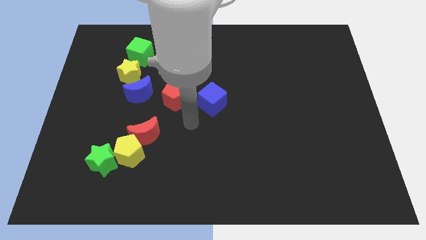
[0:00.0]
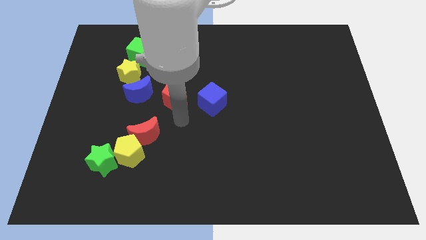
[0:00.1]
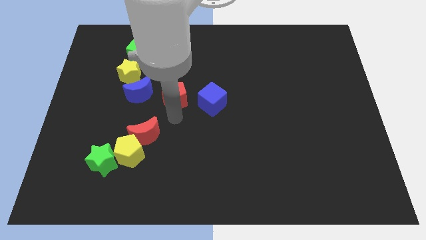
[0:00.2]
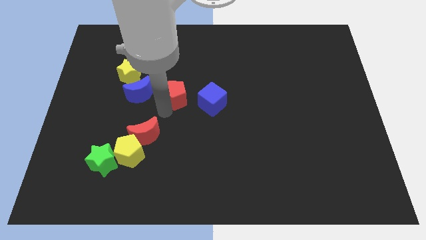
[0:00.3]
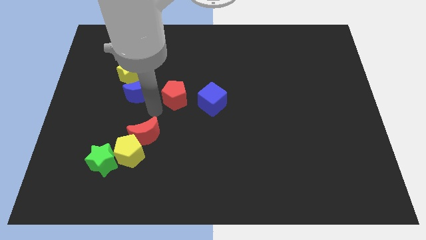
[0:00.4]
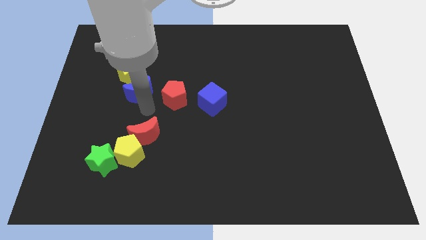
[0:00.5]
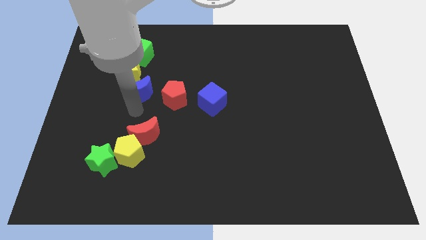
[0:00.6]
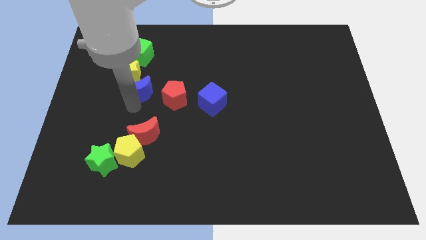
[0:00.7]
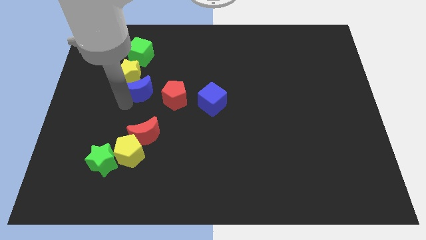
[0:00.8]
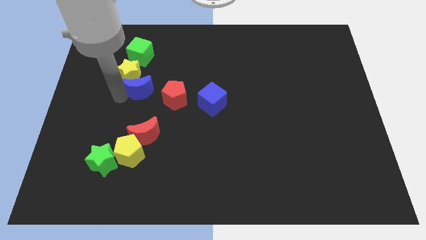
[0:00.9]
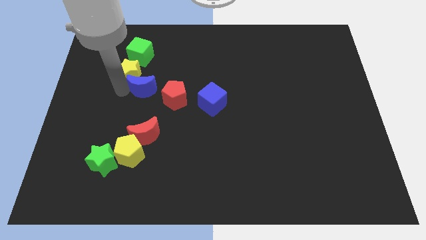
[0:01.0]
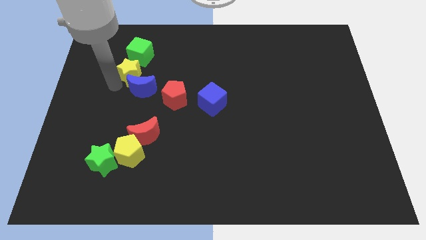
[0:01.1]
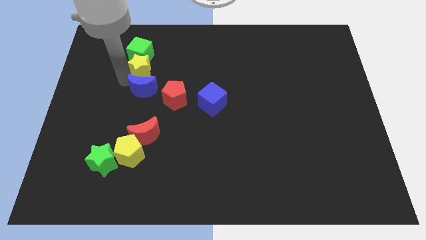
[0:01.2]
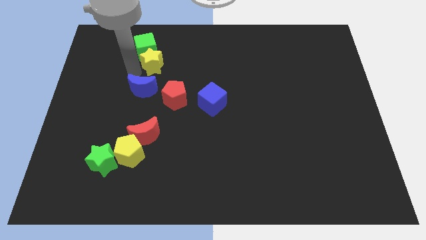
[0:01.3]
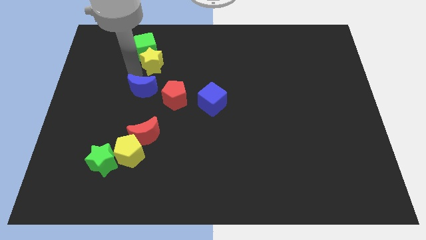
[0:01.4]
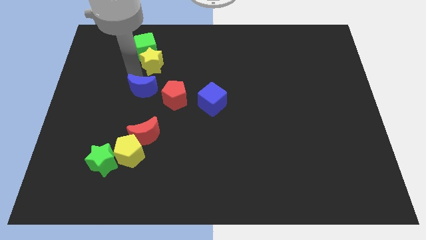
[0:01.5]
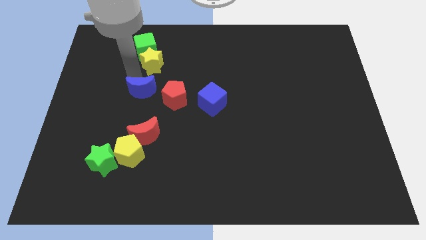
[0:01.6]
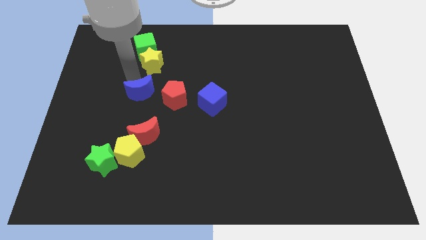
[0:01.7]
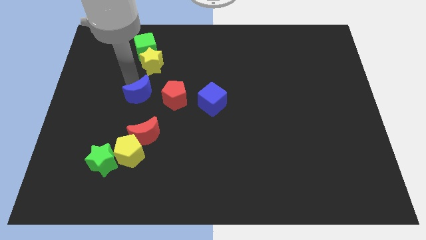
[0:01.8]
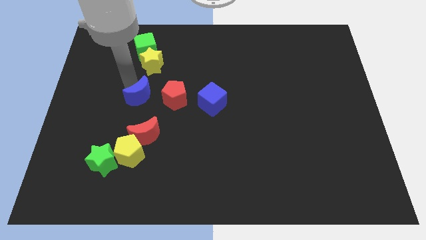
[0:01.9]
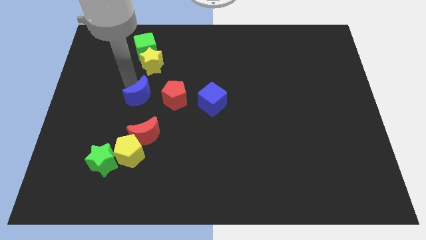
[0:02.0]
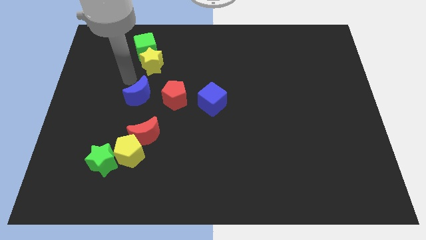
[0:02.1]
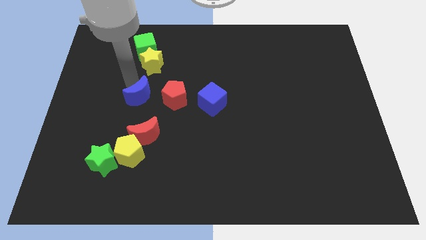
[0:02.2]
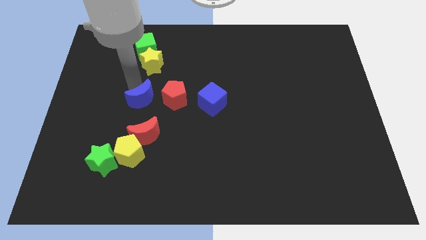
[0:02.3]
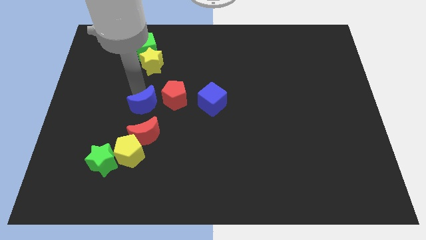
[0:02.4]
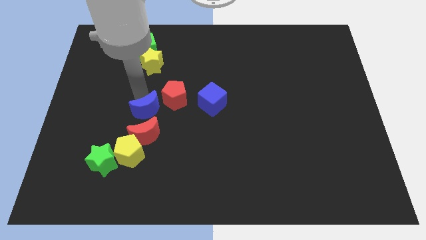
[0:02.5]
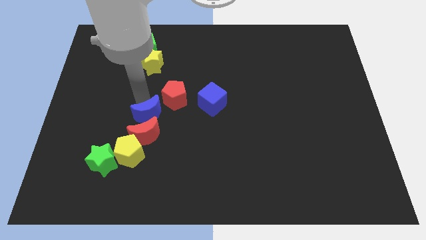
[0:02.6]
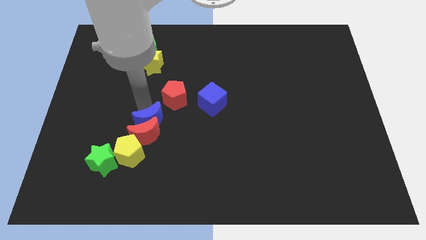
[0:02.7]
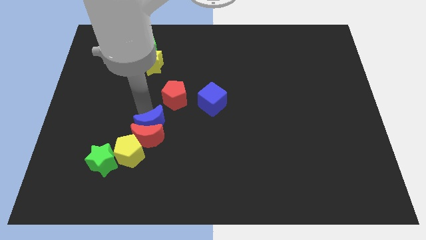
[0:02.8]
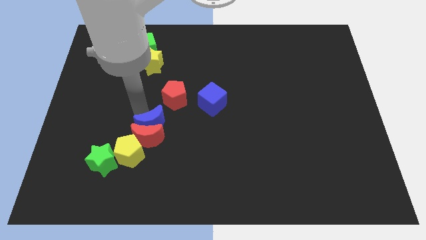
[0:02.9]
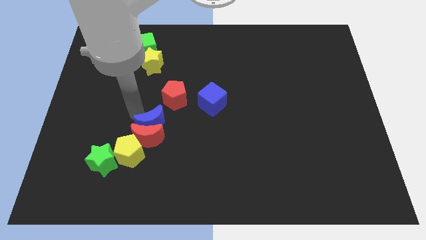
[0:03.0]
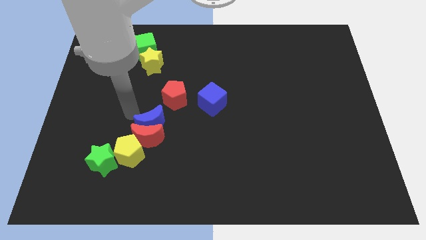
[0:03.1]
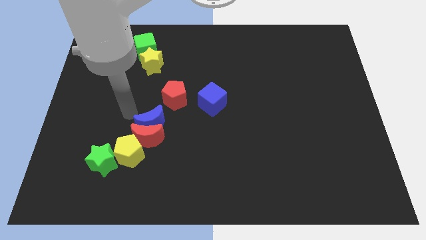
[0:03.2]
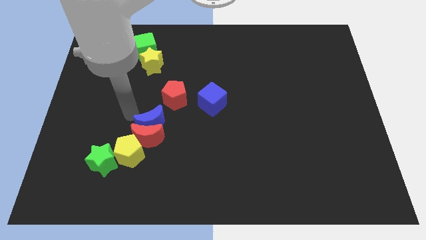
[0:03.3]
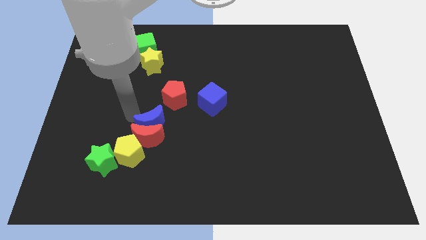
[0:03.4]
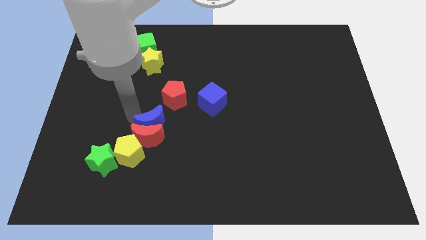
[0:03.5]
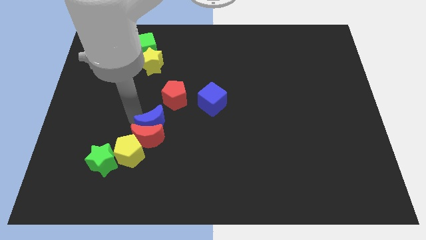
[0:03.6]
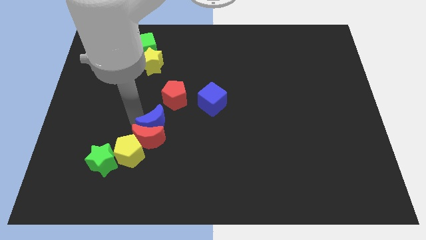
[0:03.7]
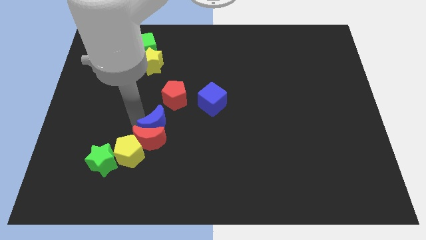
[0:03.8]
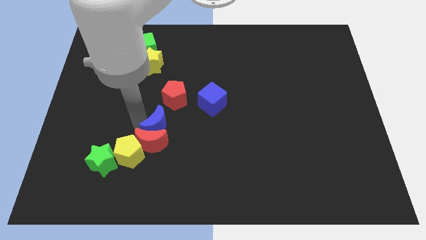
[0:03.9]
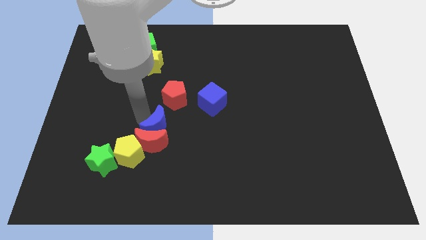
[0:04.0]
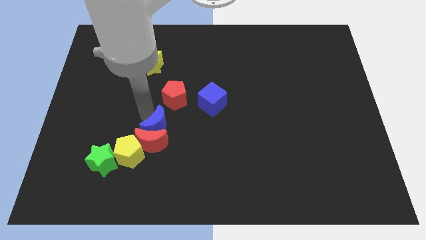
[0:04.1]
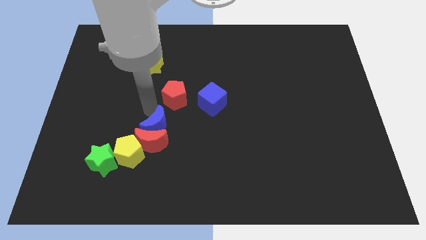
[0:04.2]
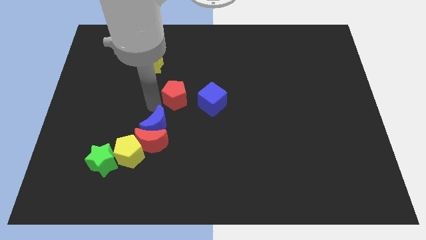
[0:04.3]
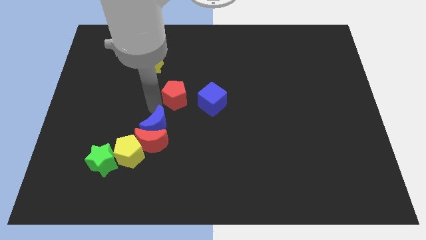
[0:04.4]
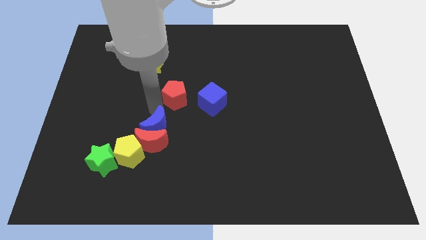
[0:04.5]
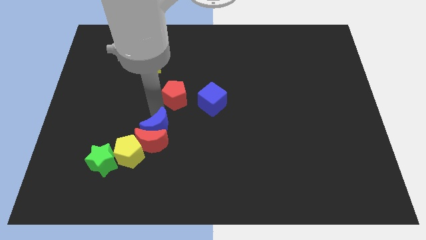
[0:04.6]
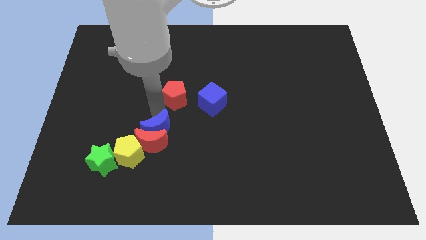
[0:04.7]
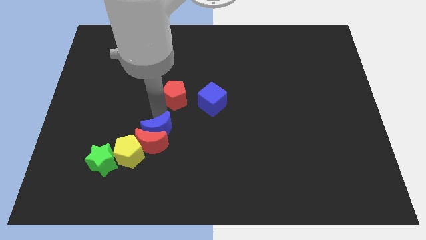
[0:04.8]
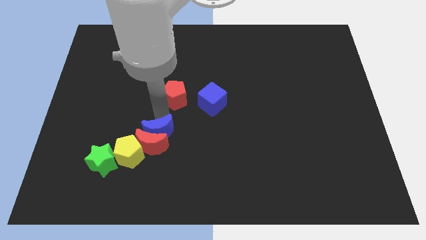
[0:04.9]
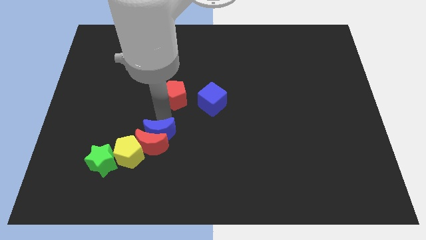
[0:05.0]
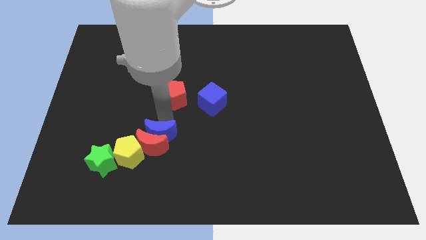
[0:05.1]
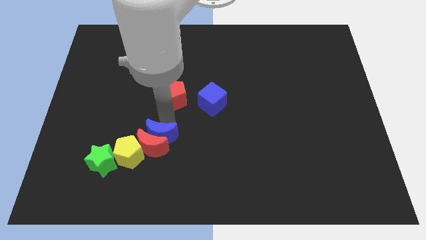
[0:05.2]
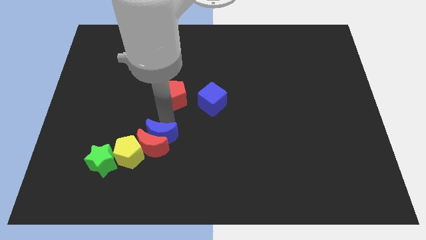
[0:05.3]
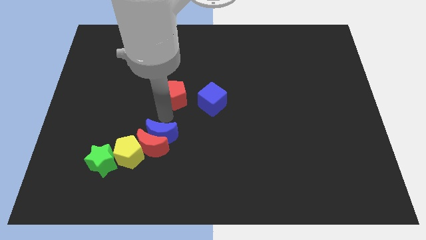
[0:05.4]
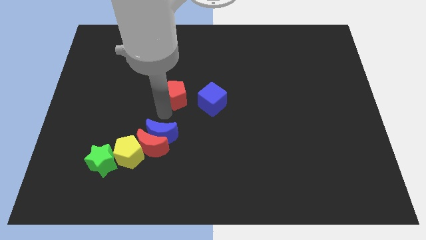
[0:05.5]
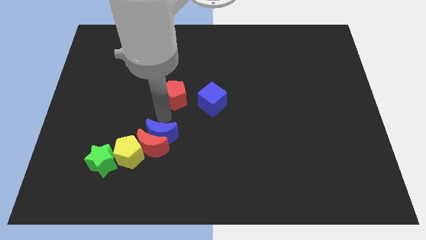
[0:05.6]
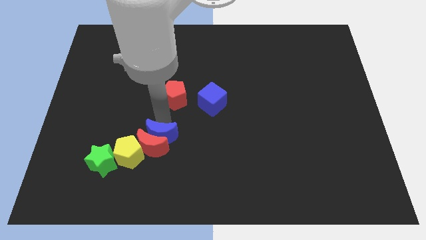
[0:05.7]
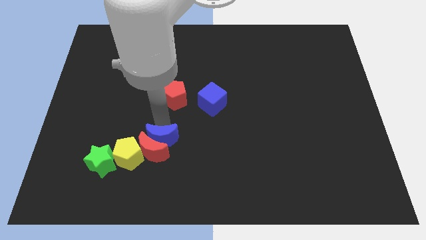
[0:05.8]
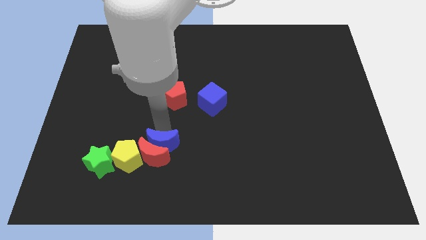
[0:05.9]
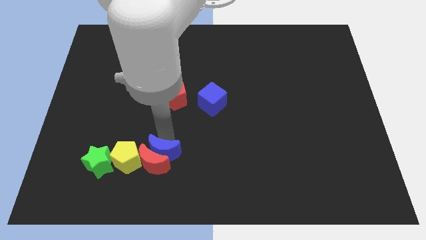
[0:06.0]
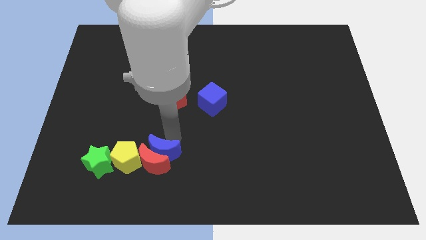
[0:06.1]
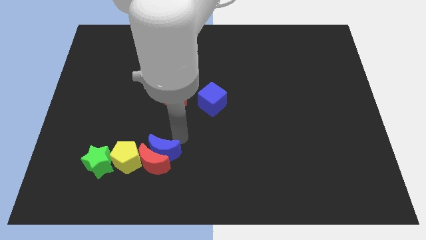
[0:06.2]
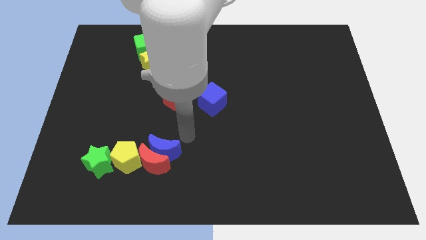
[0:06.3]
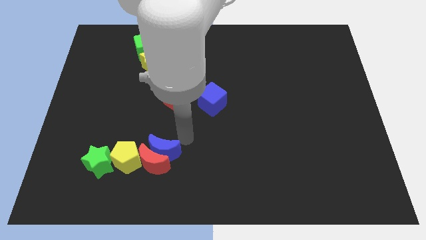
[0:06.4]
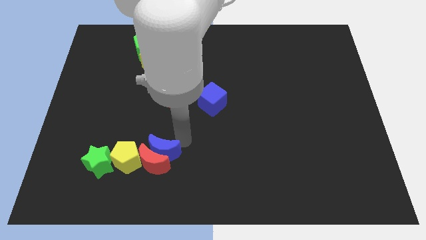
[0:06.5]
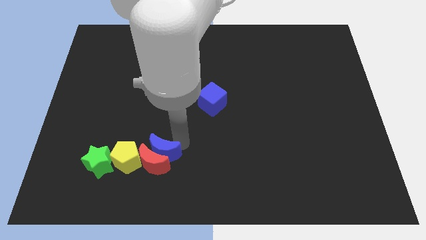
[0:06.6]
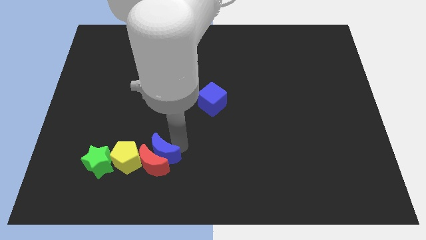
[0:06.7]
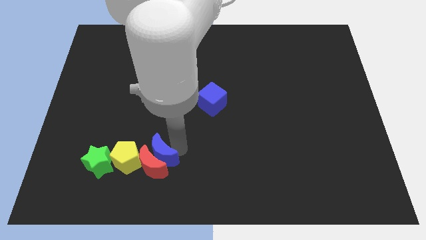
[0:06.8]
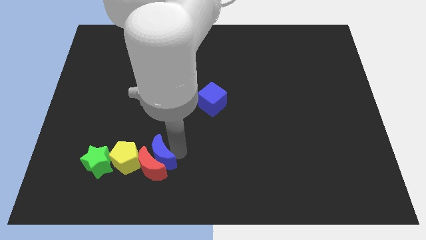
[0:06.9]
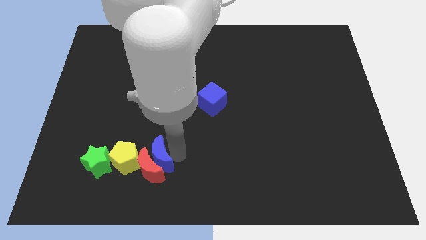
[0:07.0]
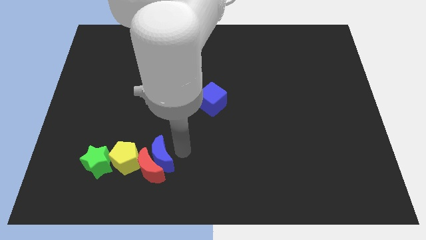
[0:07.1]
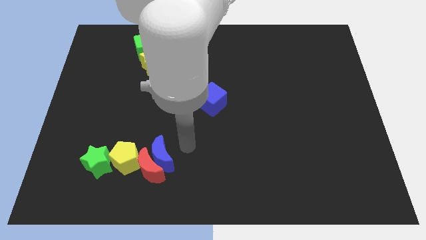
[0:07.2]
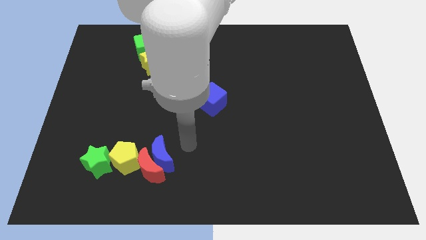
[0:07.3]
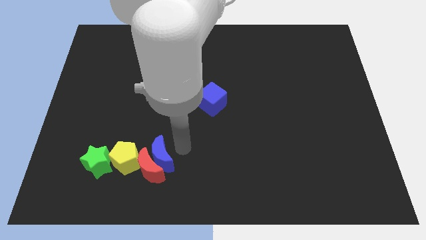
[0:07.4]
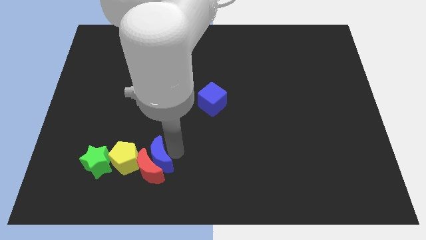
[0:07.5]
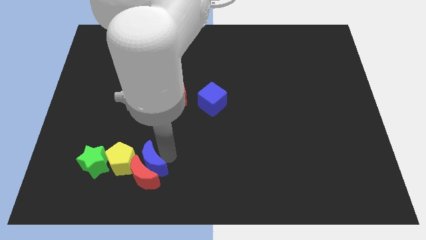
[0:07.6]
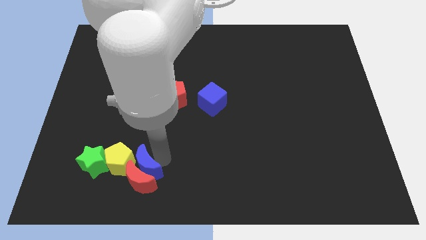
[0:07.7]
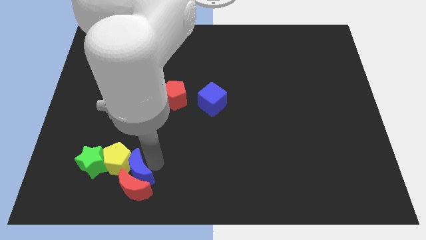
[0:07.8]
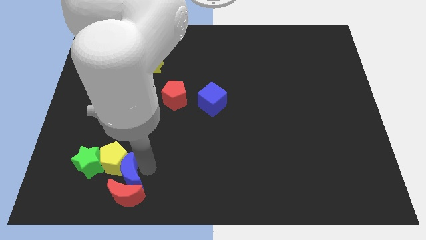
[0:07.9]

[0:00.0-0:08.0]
push the blue moon diagonally down and to the right of the green star
